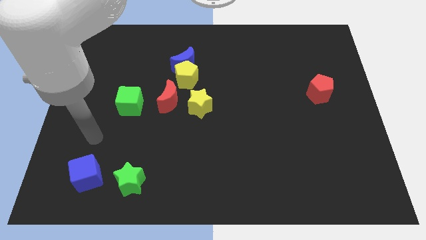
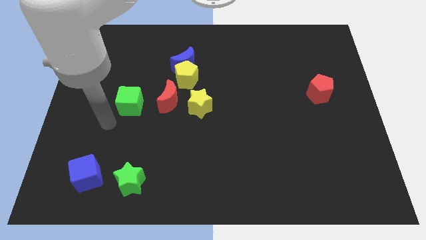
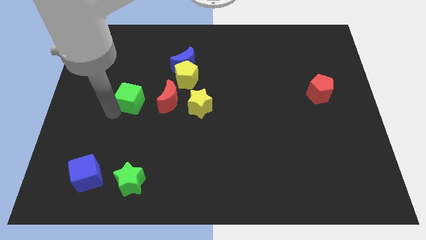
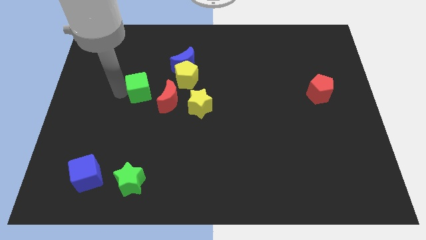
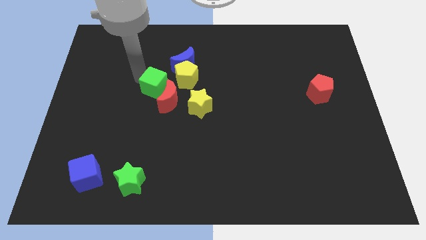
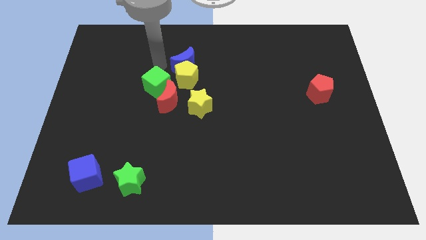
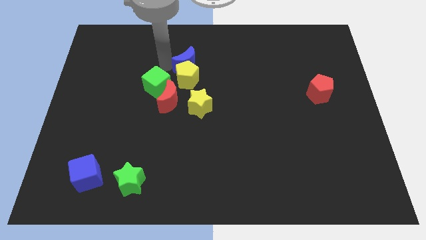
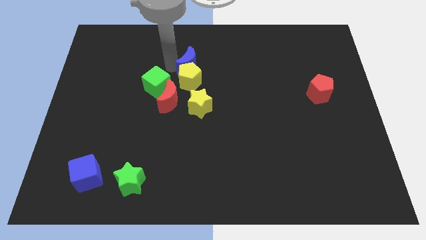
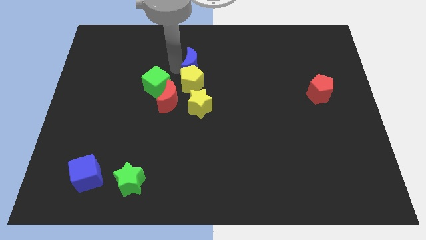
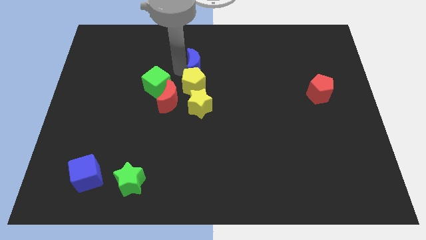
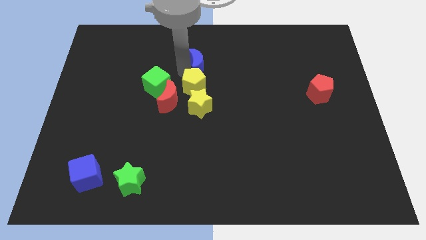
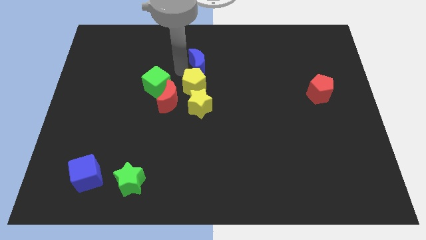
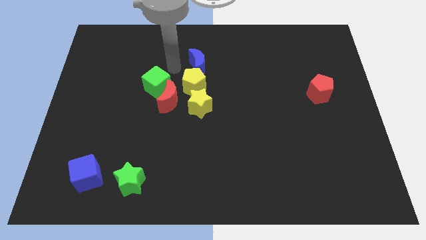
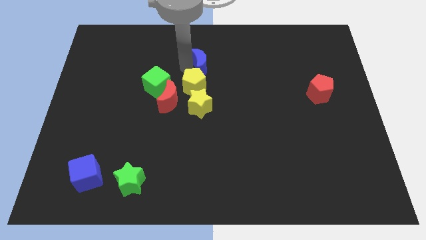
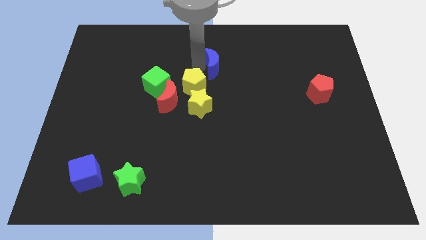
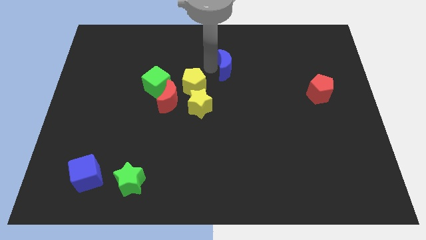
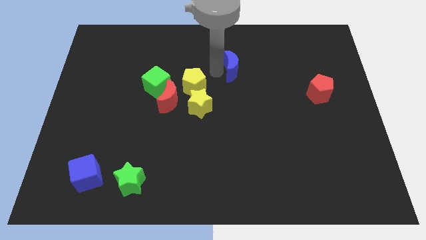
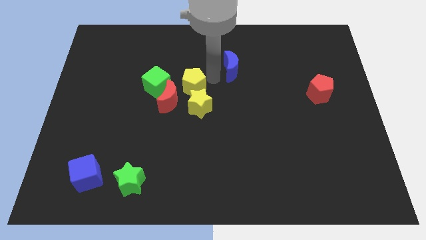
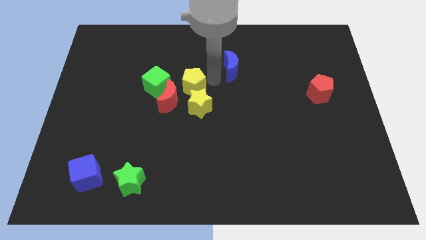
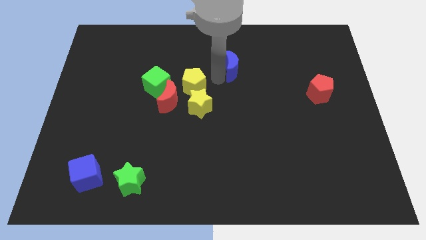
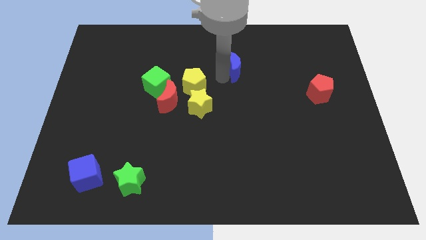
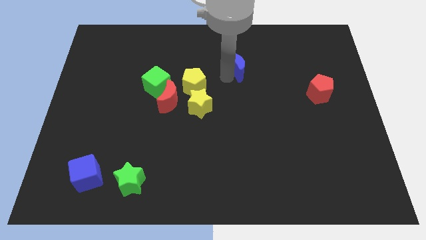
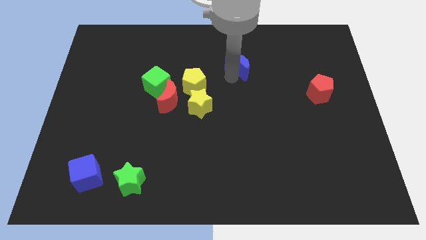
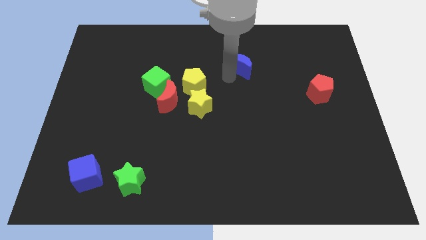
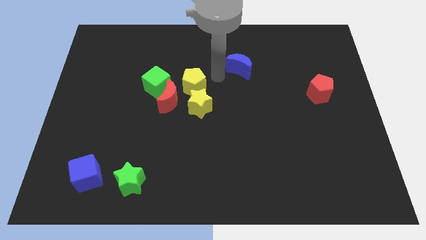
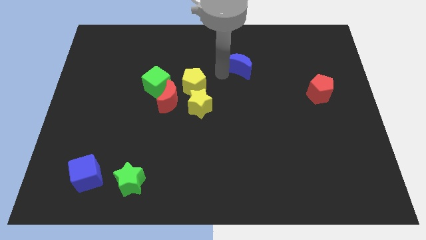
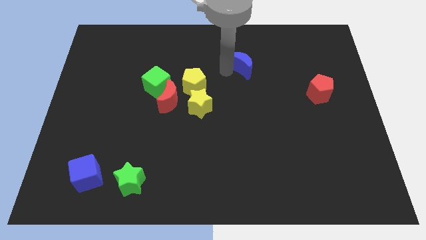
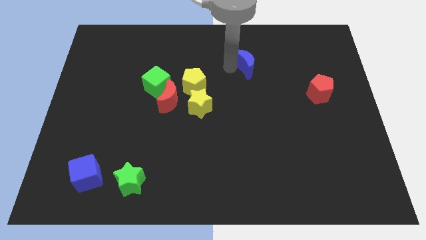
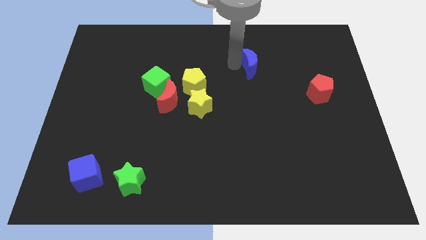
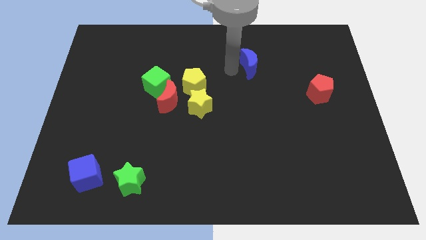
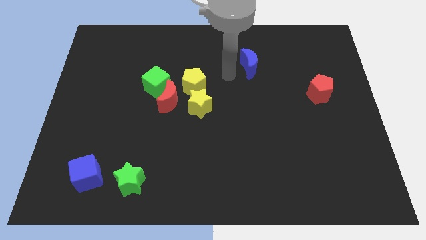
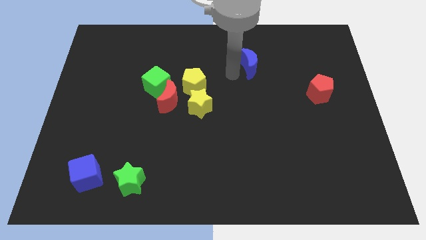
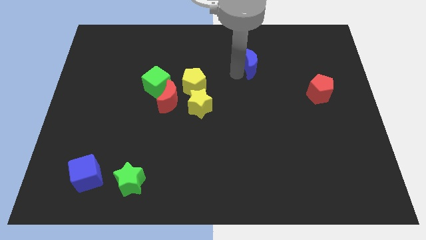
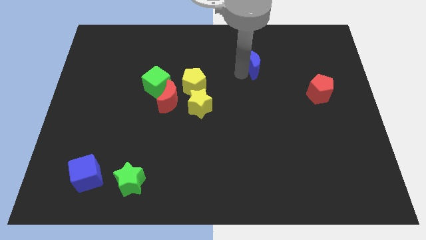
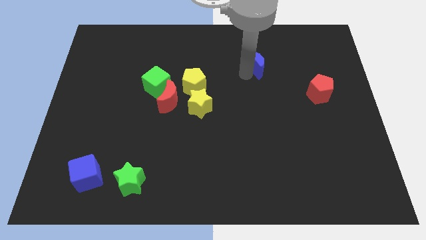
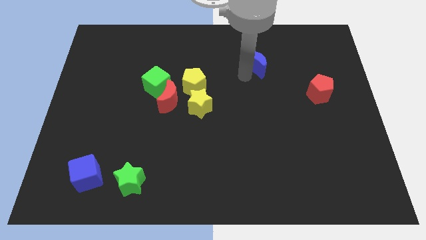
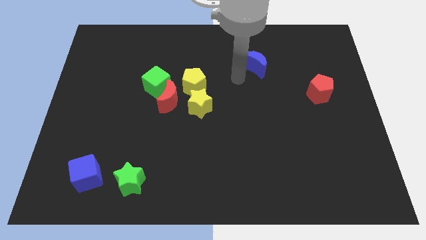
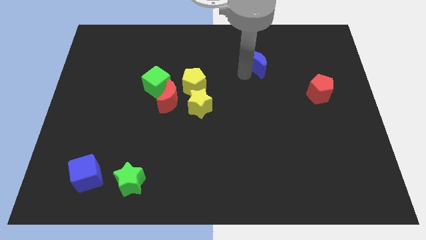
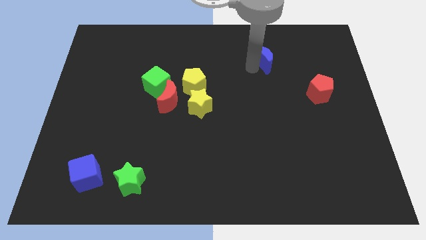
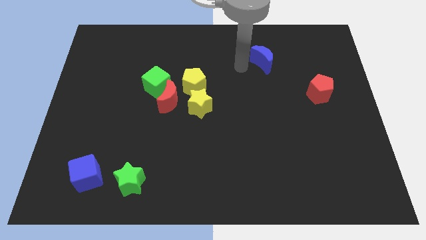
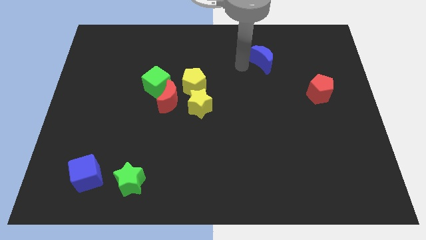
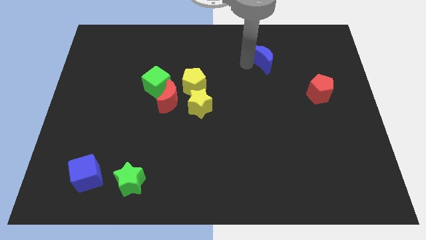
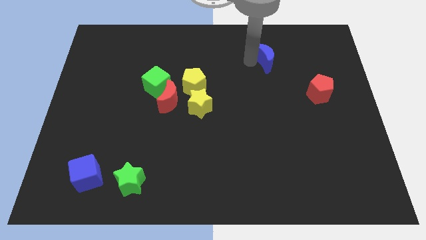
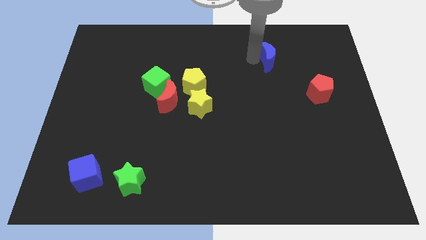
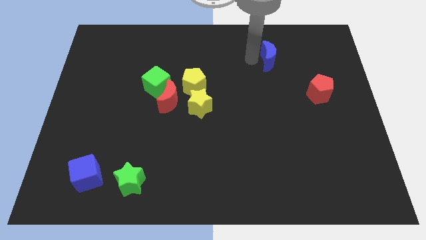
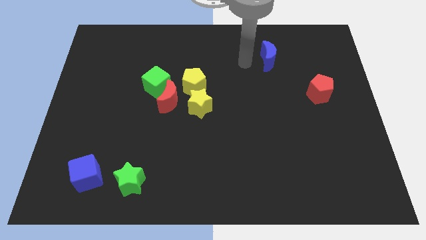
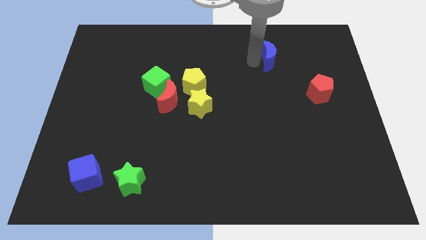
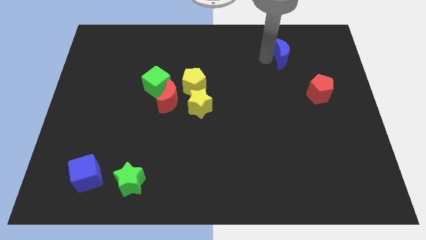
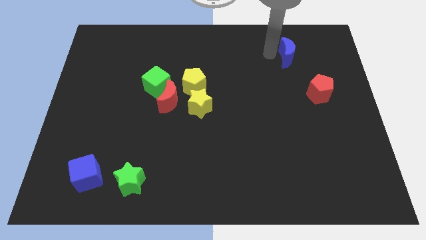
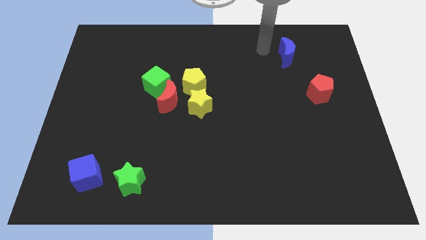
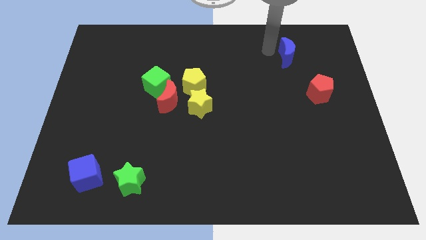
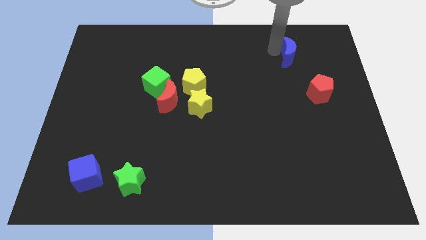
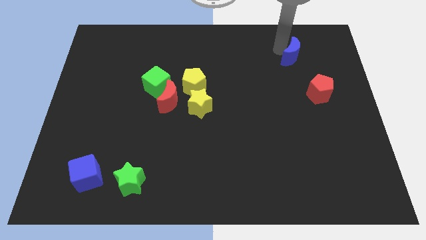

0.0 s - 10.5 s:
push the blue moon to the top of the red pentagon

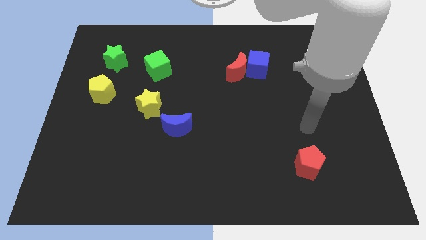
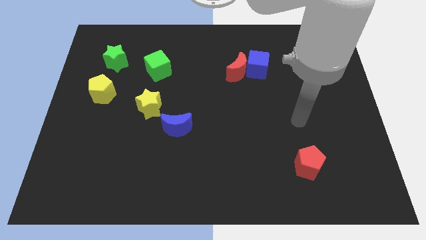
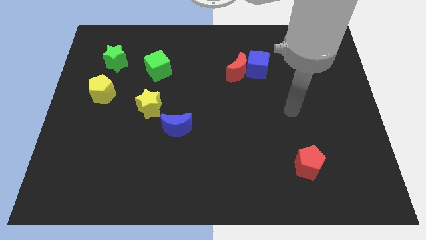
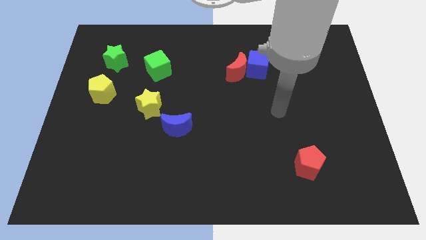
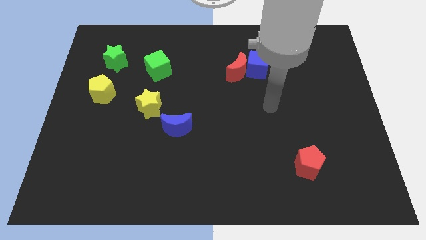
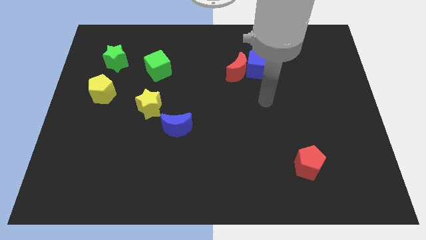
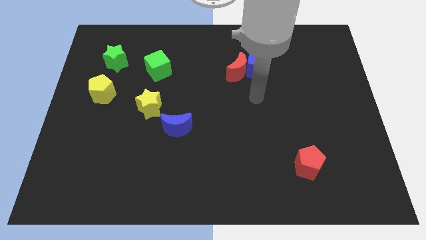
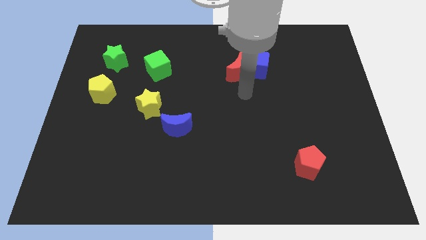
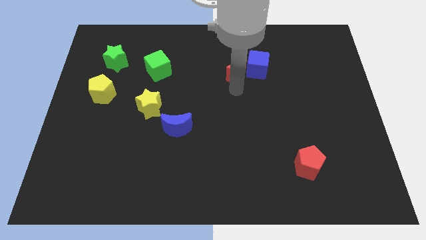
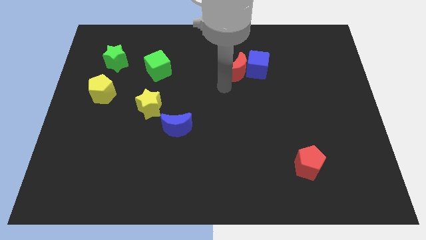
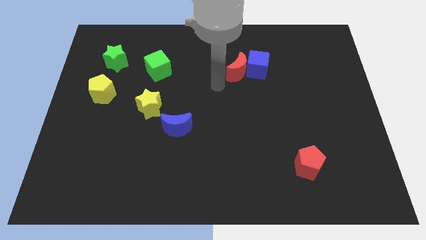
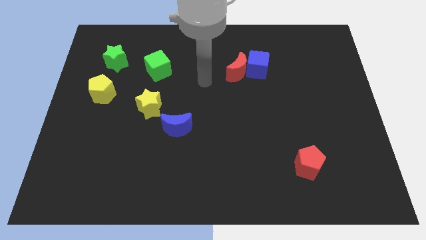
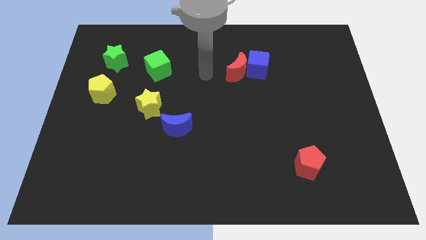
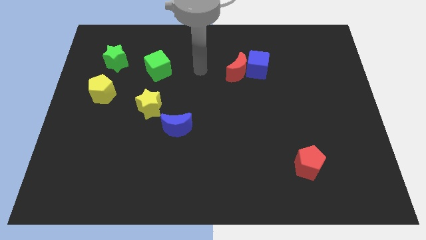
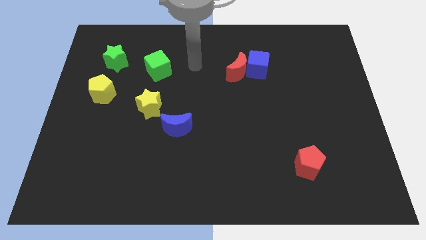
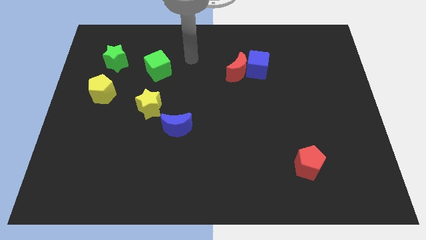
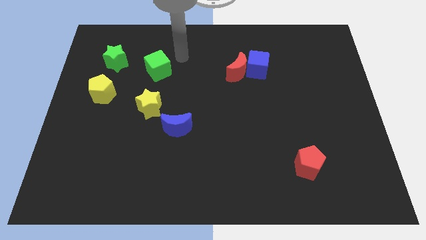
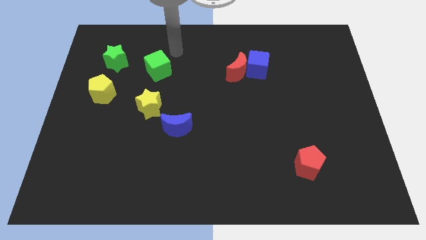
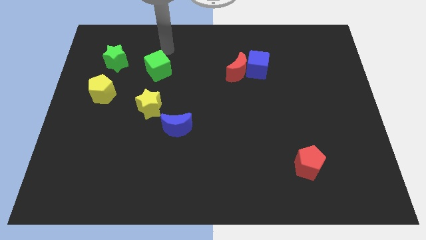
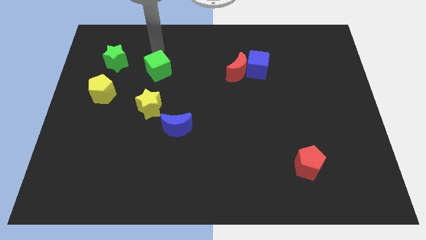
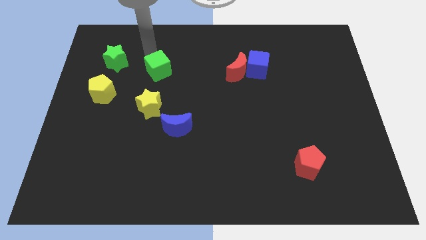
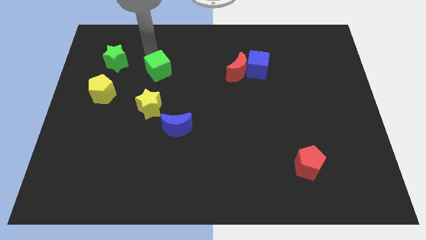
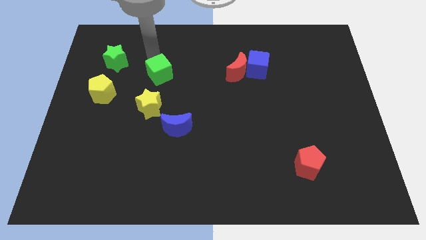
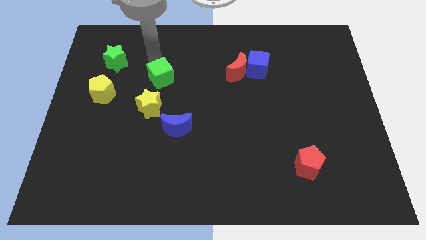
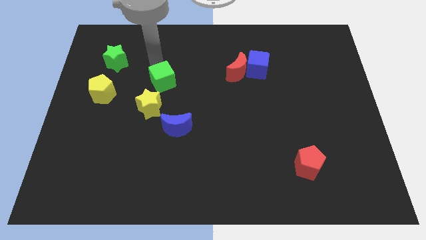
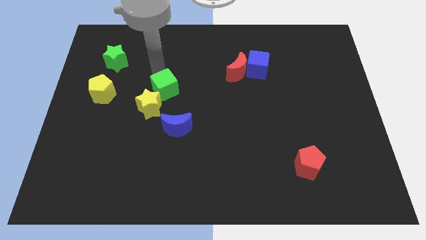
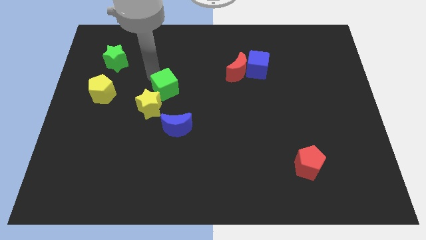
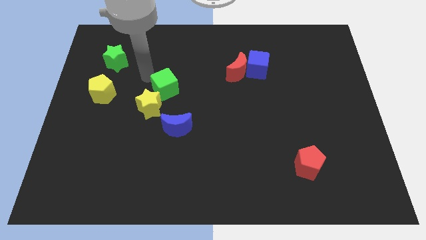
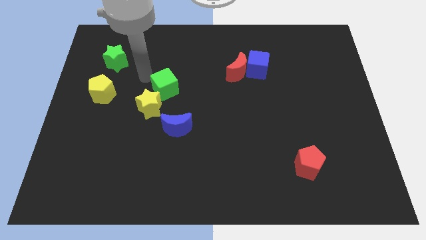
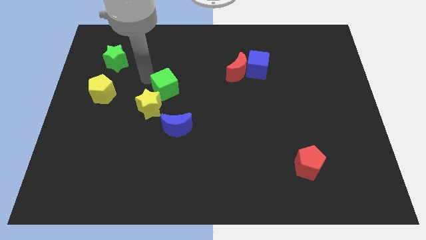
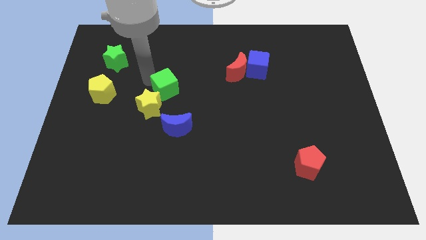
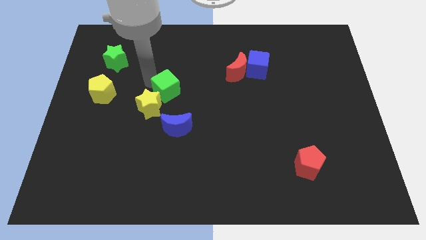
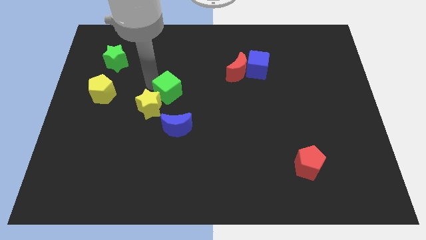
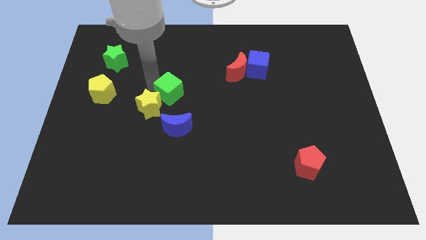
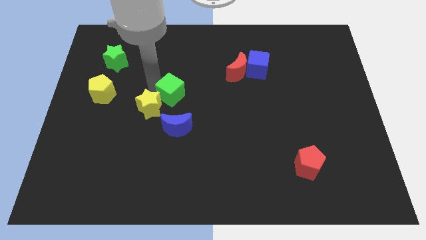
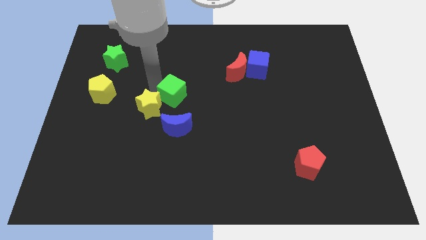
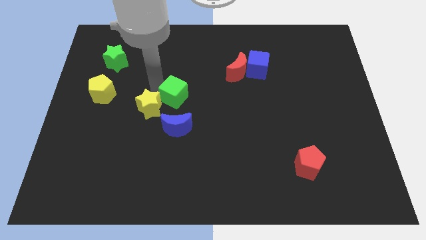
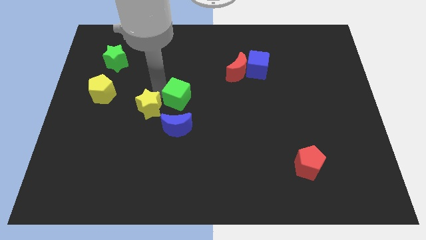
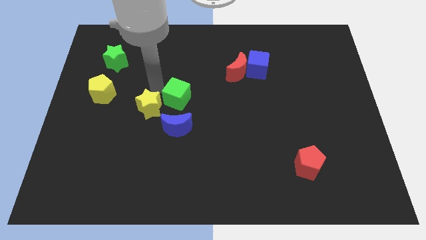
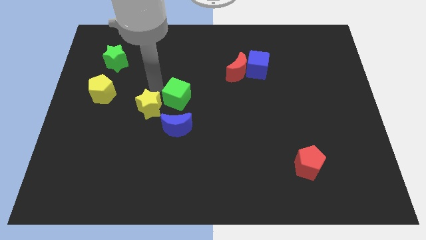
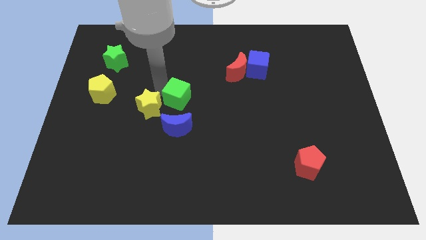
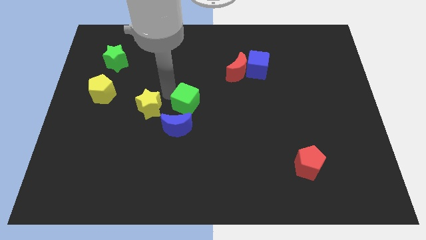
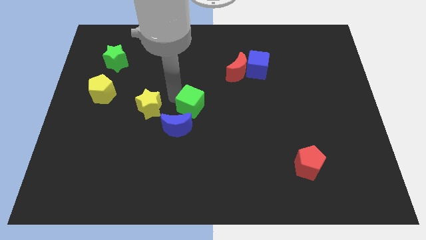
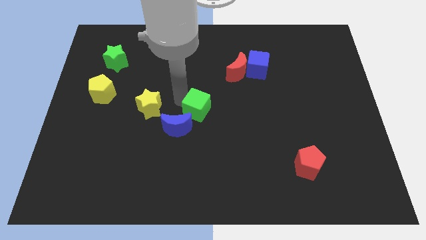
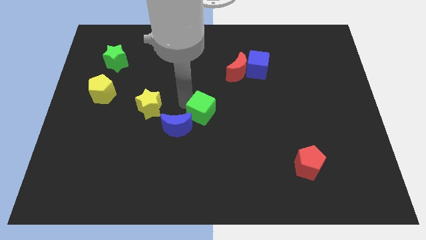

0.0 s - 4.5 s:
push the green cube right of the blue moon
